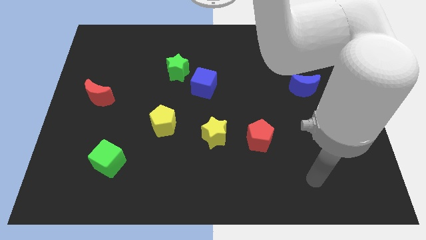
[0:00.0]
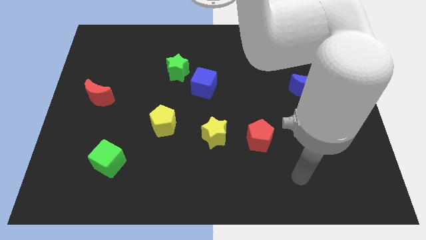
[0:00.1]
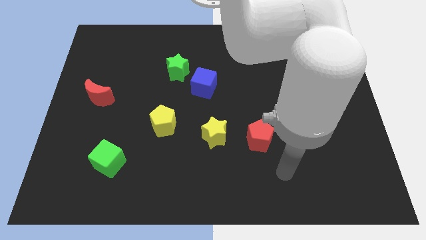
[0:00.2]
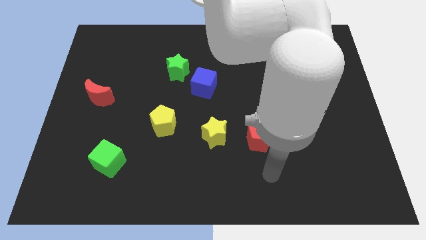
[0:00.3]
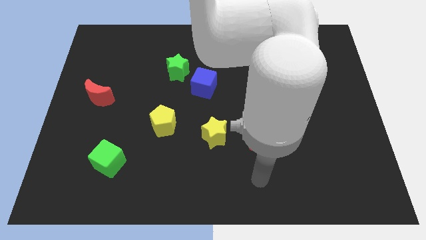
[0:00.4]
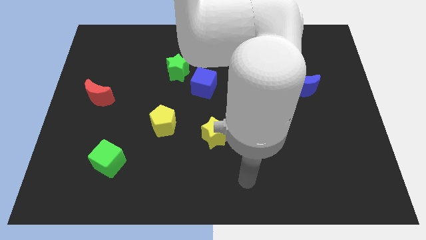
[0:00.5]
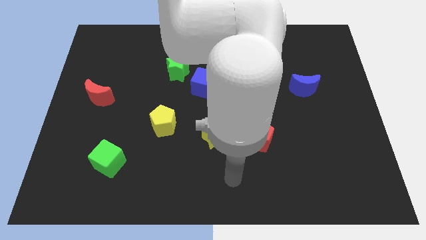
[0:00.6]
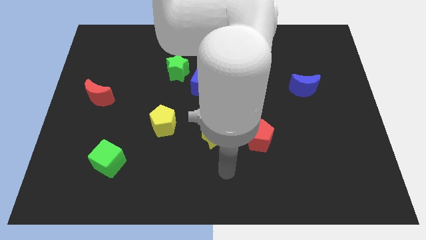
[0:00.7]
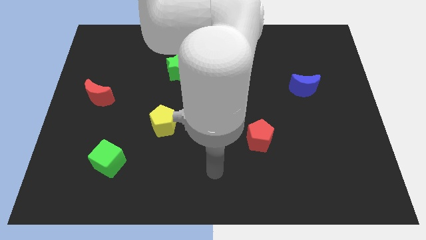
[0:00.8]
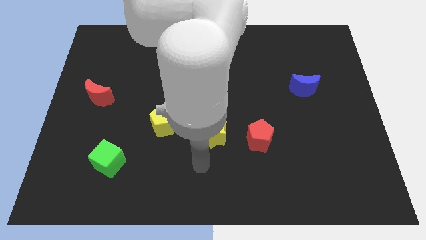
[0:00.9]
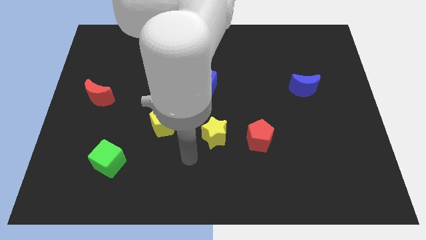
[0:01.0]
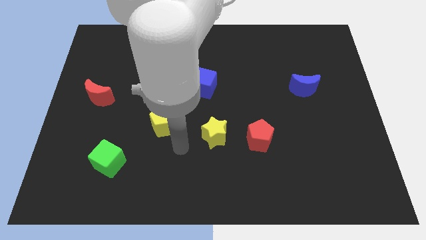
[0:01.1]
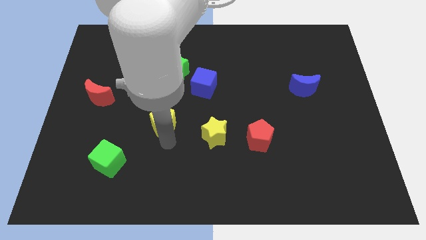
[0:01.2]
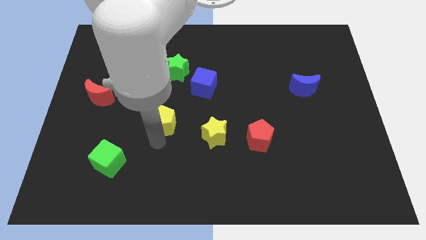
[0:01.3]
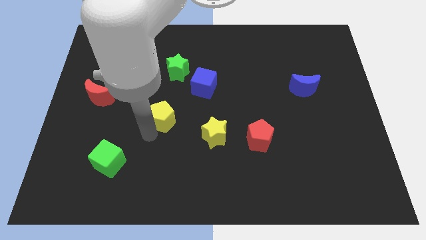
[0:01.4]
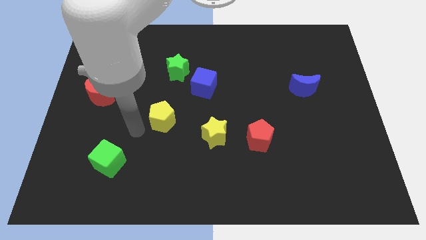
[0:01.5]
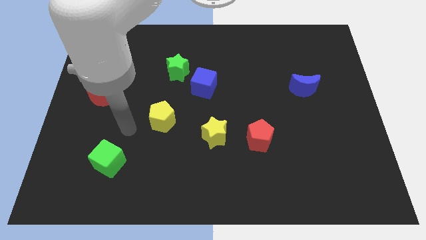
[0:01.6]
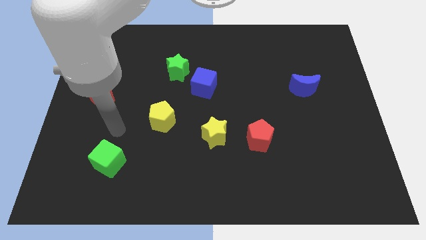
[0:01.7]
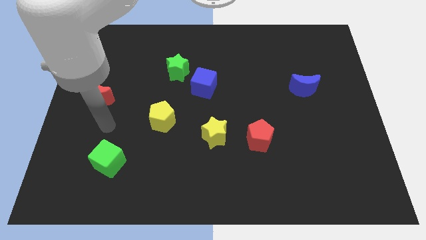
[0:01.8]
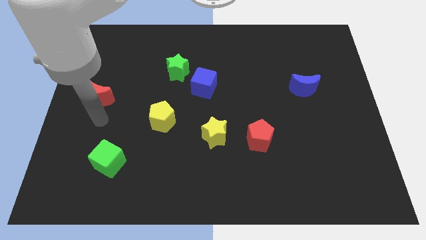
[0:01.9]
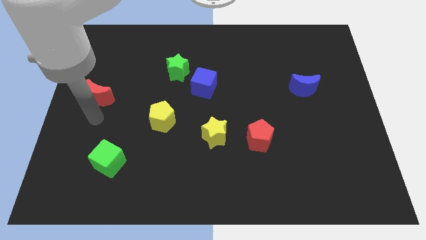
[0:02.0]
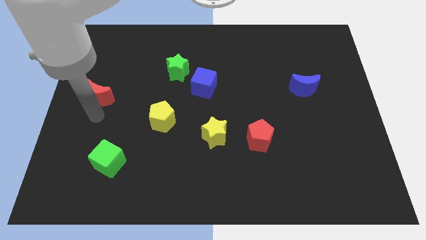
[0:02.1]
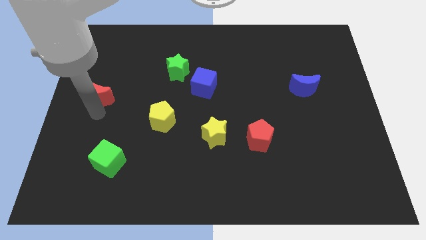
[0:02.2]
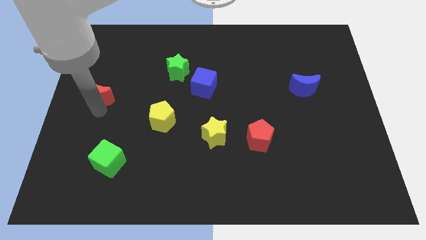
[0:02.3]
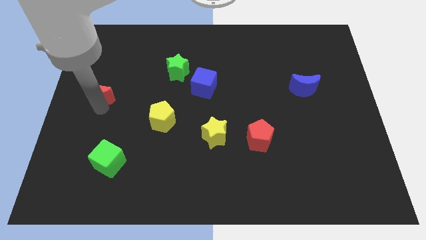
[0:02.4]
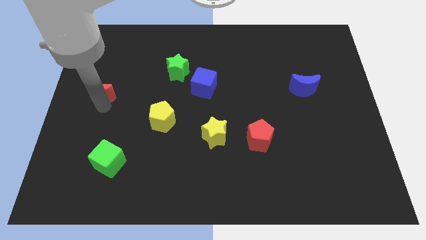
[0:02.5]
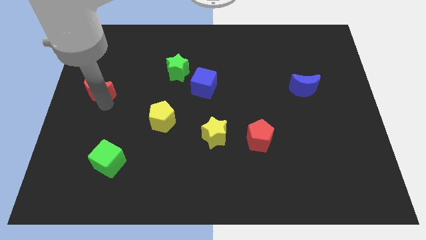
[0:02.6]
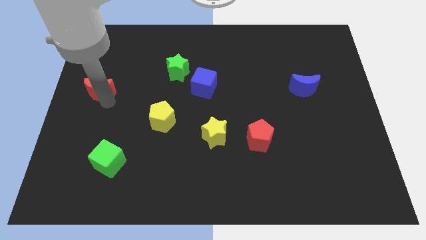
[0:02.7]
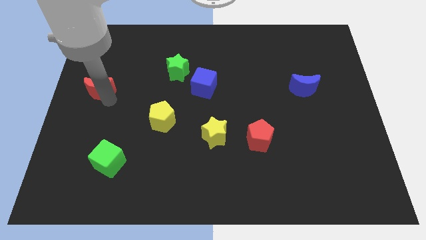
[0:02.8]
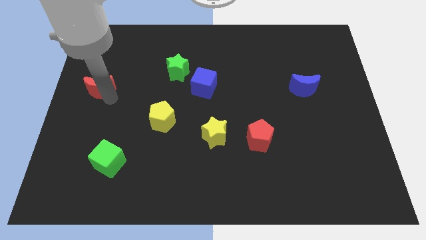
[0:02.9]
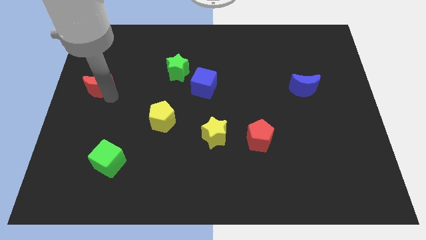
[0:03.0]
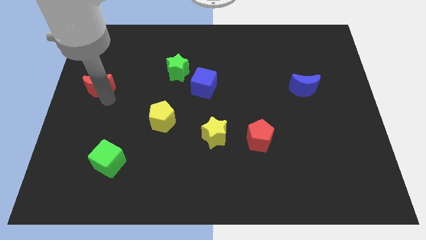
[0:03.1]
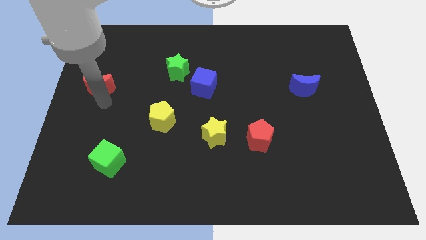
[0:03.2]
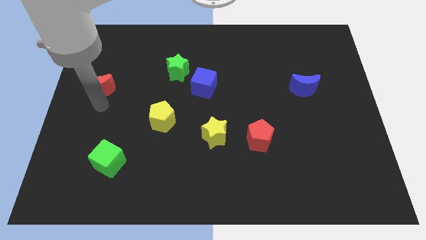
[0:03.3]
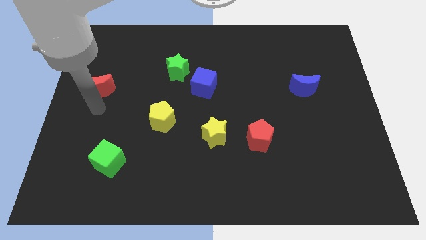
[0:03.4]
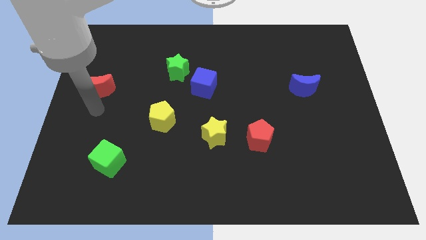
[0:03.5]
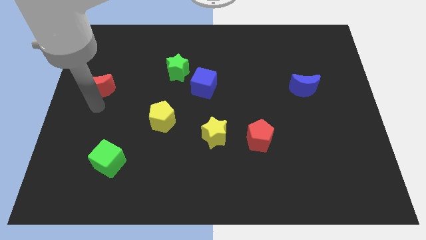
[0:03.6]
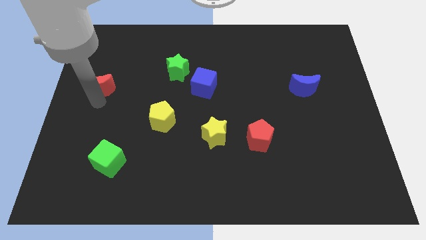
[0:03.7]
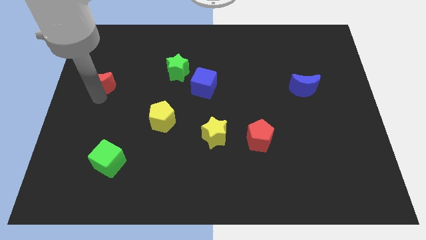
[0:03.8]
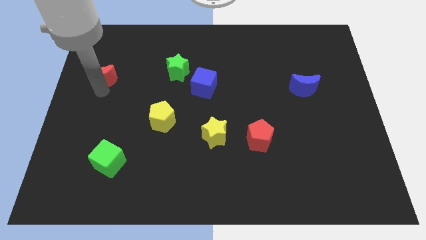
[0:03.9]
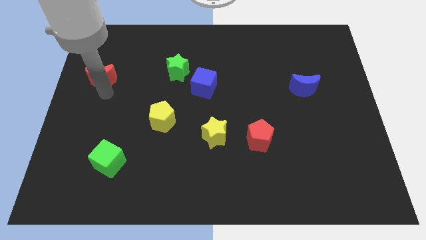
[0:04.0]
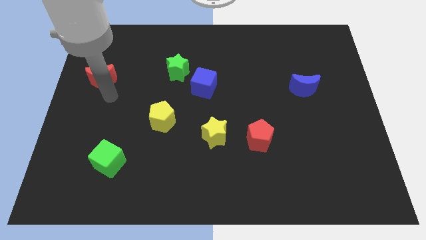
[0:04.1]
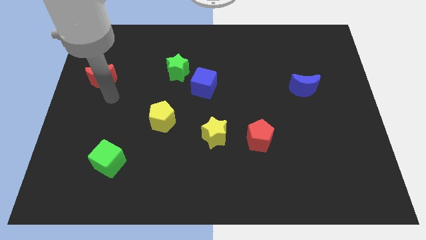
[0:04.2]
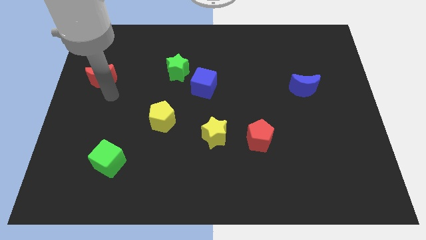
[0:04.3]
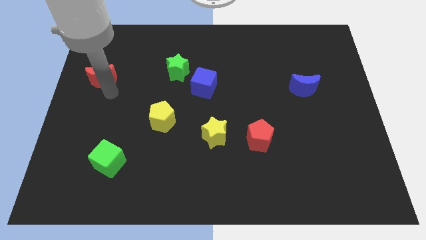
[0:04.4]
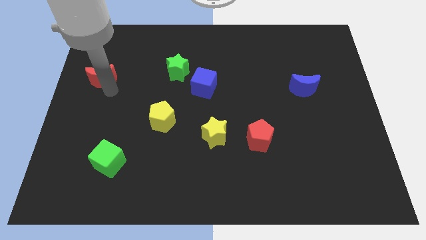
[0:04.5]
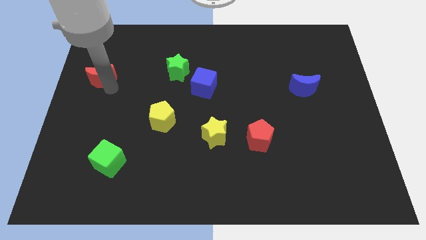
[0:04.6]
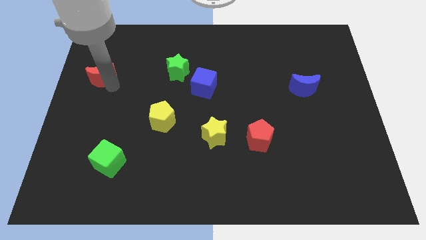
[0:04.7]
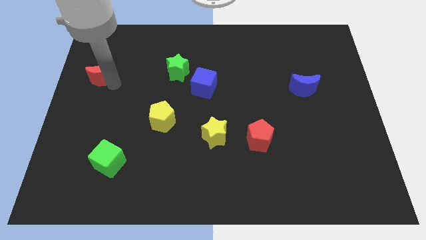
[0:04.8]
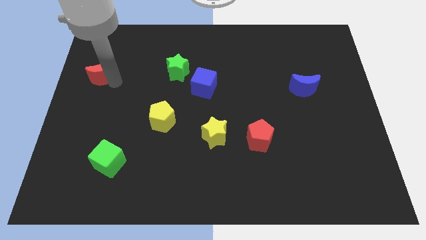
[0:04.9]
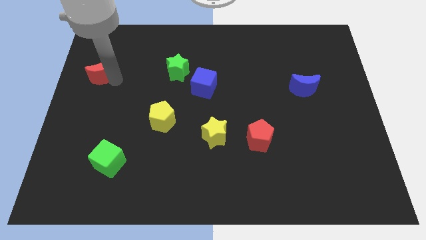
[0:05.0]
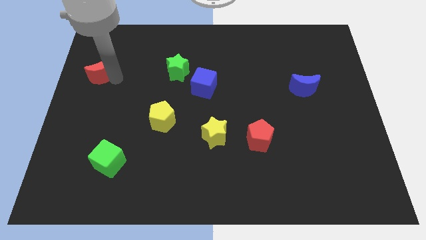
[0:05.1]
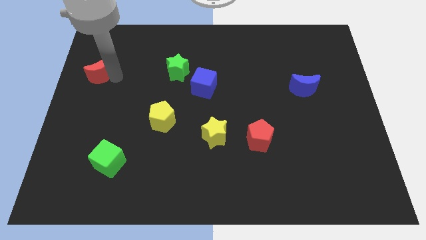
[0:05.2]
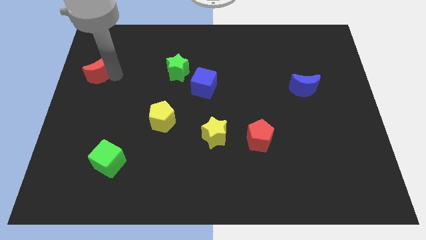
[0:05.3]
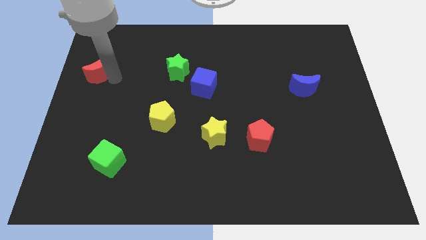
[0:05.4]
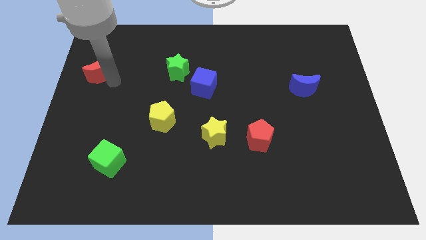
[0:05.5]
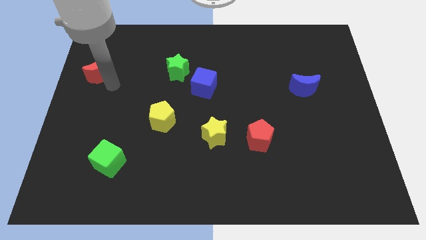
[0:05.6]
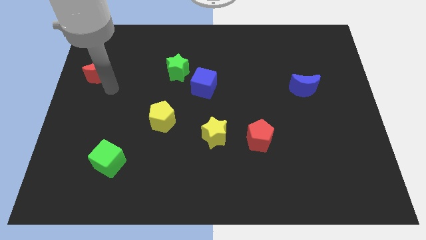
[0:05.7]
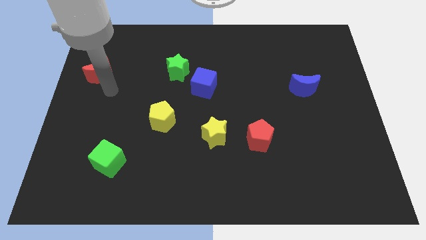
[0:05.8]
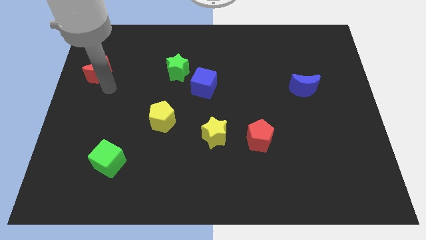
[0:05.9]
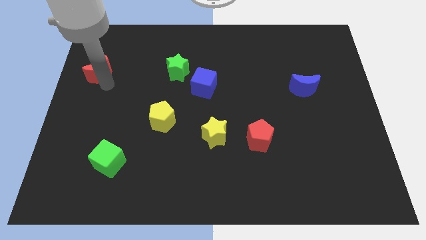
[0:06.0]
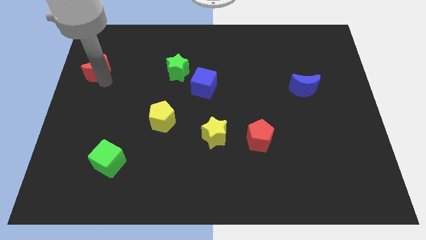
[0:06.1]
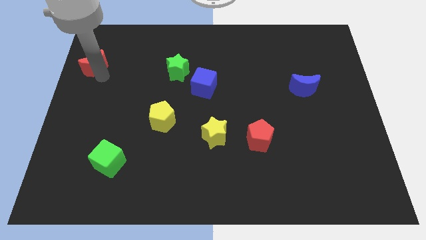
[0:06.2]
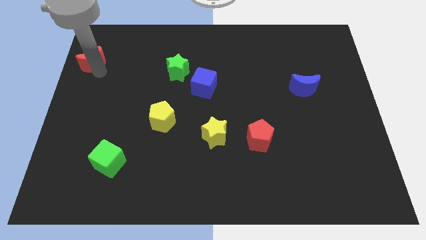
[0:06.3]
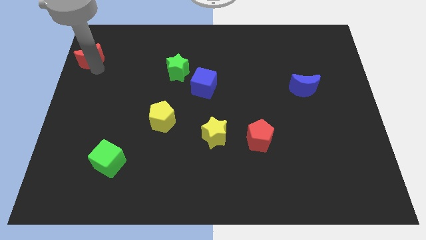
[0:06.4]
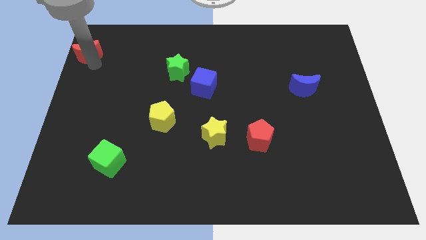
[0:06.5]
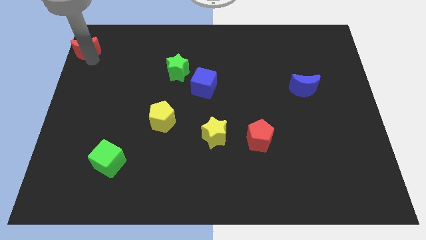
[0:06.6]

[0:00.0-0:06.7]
push the red moon to the top left corner
